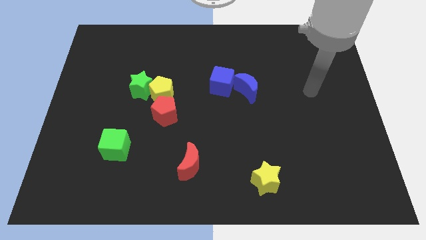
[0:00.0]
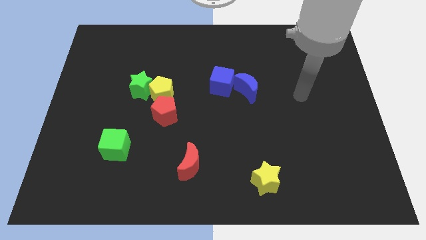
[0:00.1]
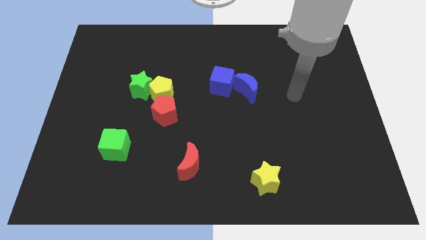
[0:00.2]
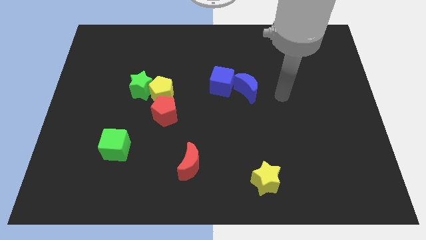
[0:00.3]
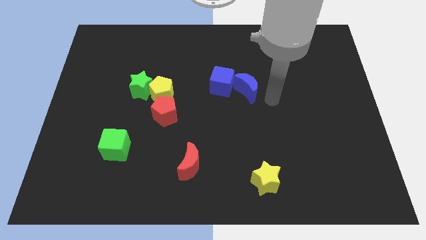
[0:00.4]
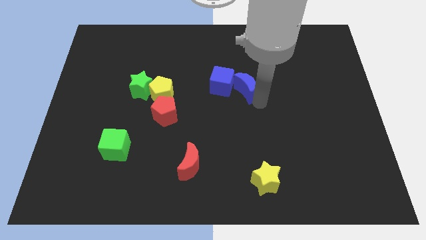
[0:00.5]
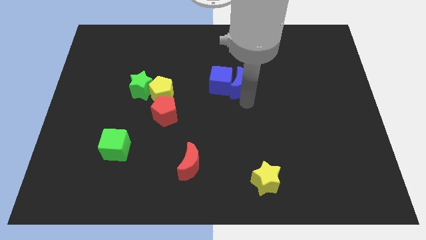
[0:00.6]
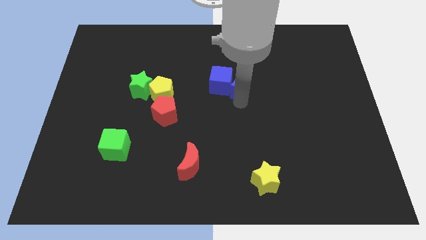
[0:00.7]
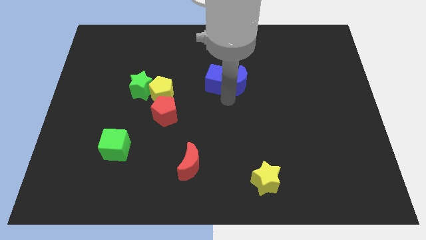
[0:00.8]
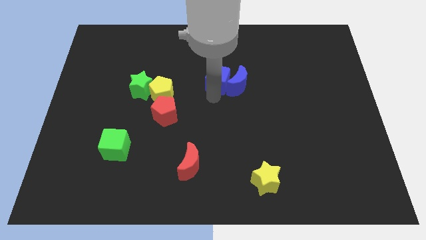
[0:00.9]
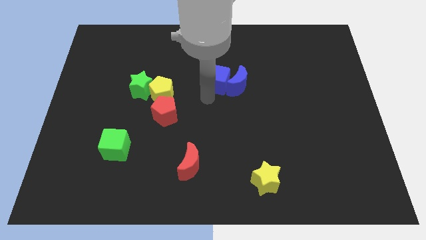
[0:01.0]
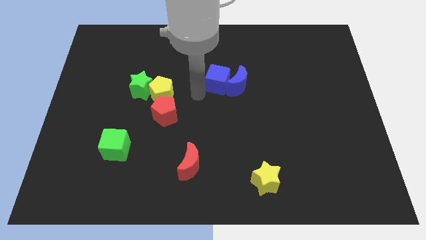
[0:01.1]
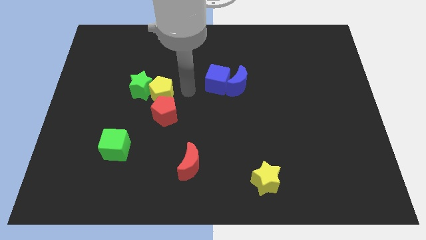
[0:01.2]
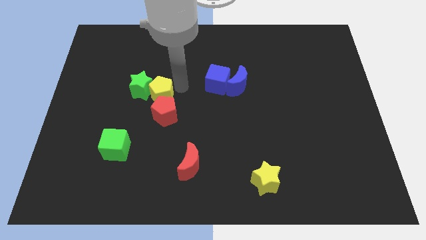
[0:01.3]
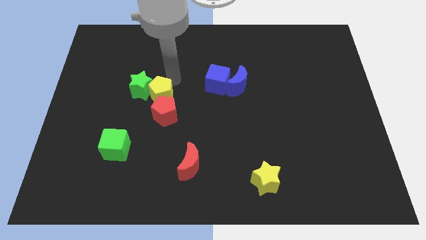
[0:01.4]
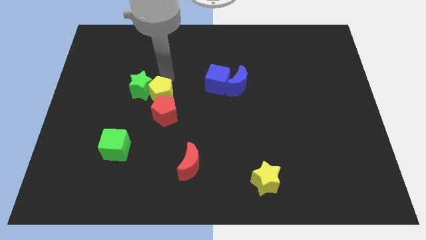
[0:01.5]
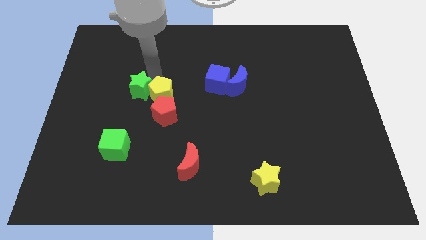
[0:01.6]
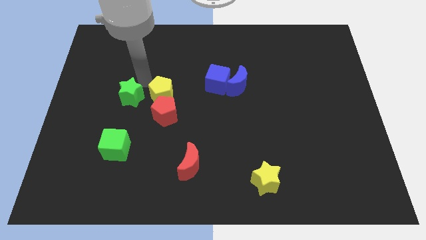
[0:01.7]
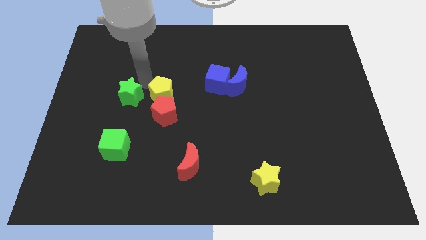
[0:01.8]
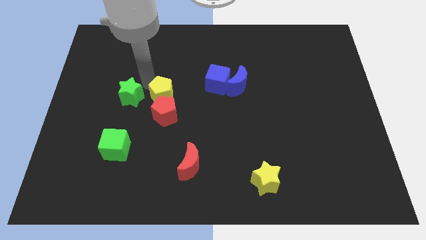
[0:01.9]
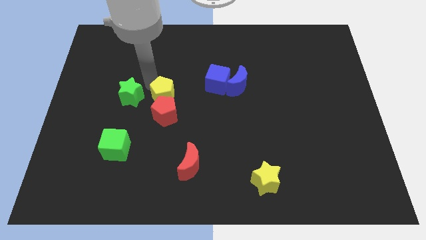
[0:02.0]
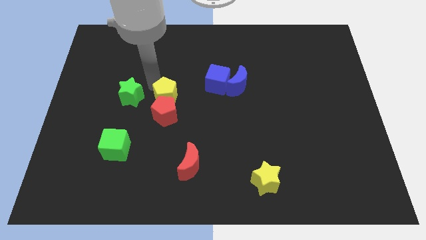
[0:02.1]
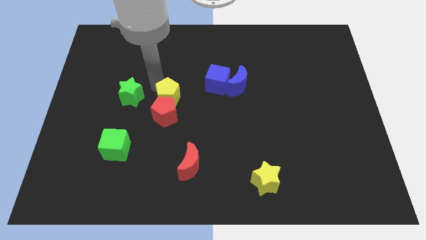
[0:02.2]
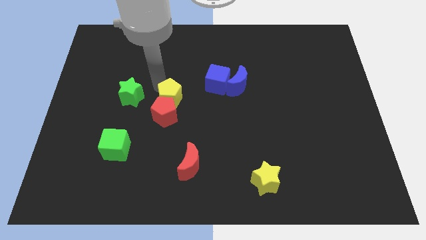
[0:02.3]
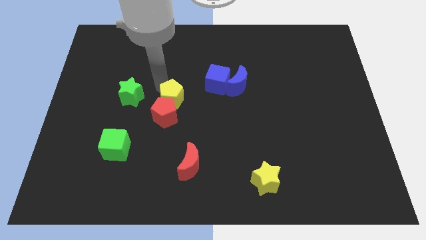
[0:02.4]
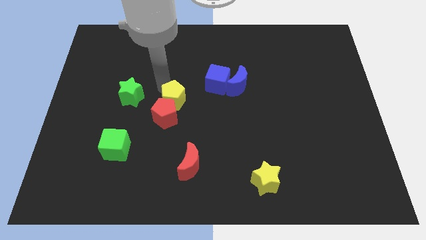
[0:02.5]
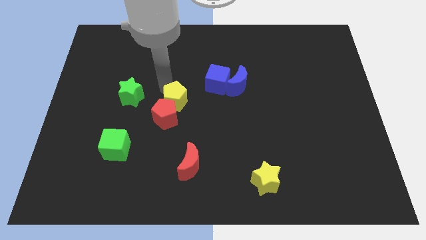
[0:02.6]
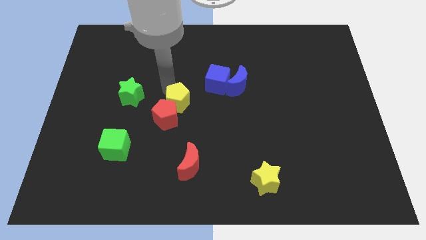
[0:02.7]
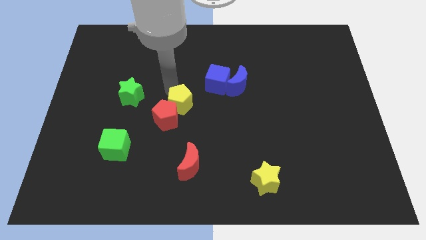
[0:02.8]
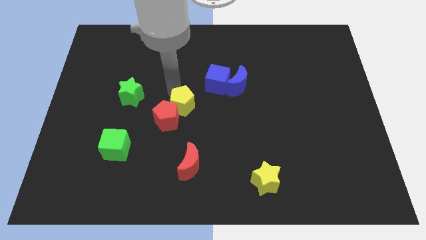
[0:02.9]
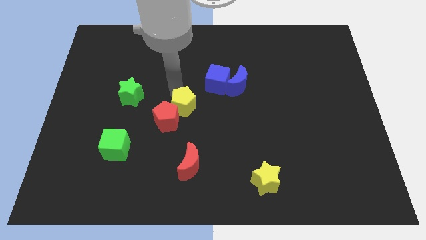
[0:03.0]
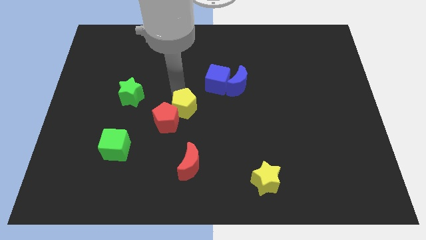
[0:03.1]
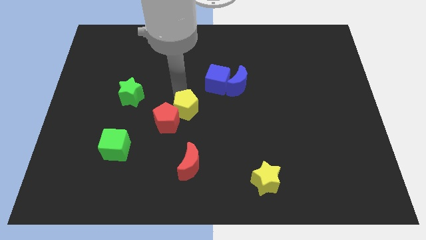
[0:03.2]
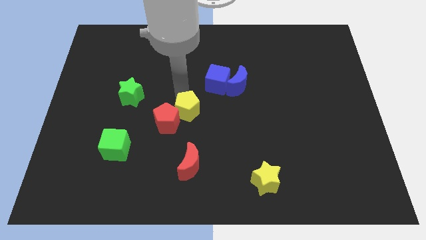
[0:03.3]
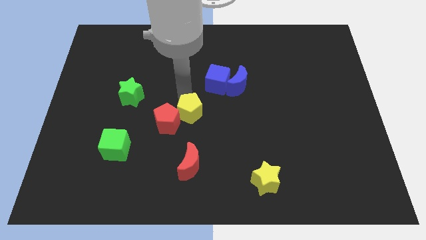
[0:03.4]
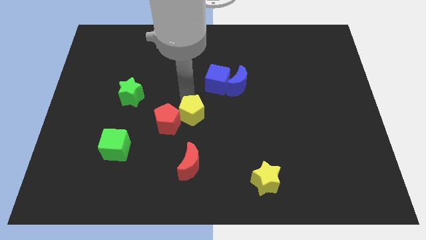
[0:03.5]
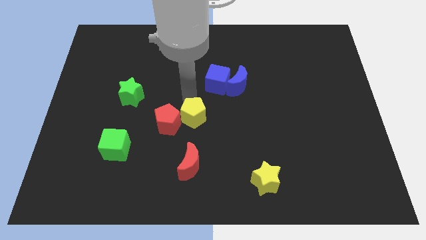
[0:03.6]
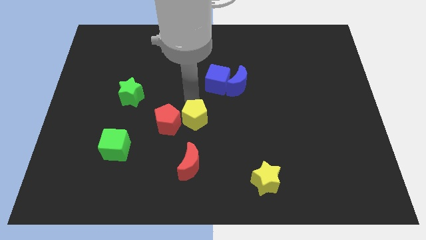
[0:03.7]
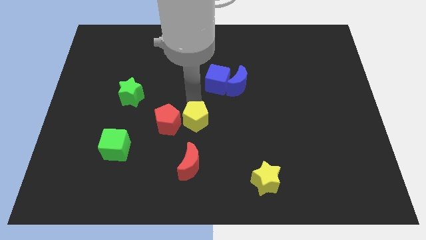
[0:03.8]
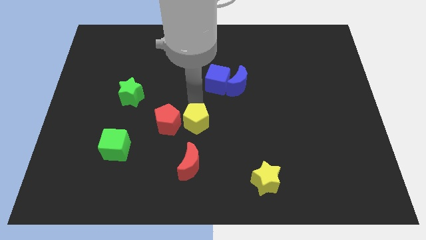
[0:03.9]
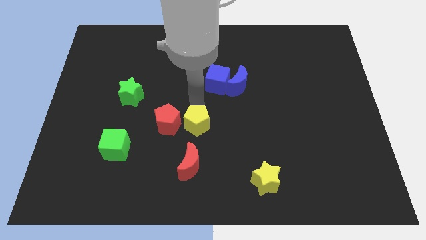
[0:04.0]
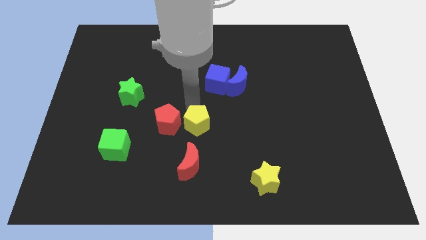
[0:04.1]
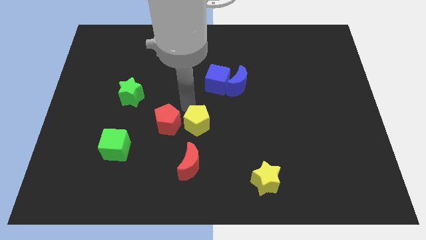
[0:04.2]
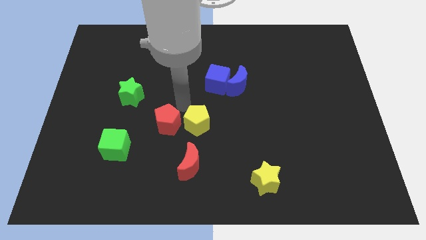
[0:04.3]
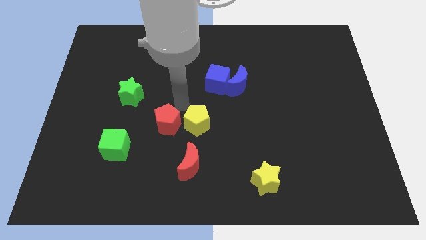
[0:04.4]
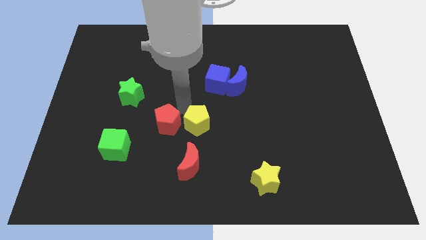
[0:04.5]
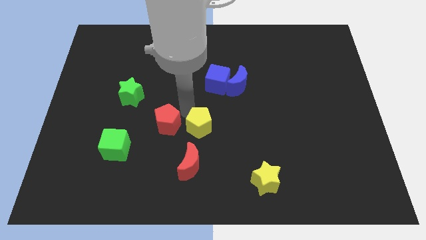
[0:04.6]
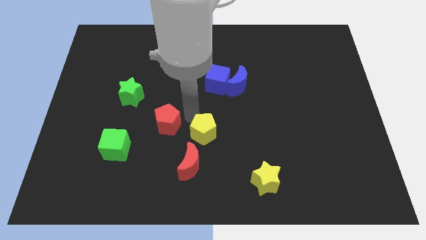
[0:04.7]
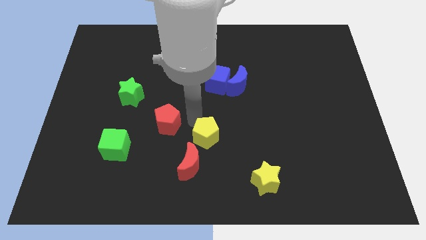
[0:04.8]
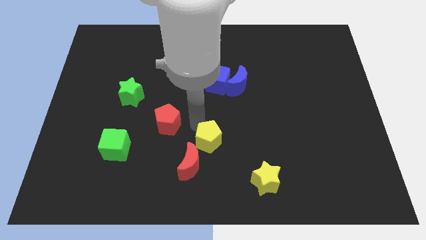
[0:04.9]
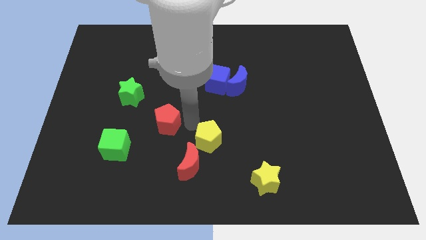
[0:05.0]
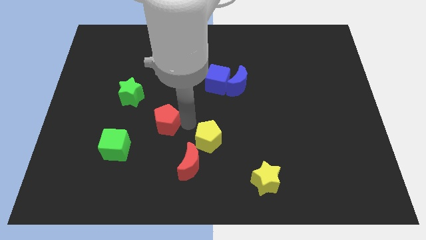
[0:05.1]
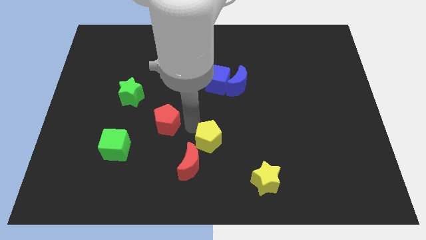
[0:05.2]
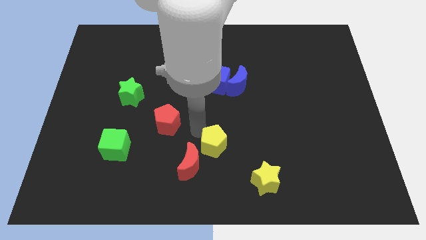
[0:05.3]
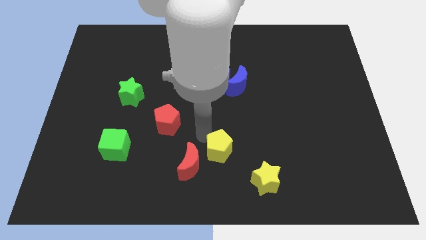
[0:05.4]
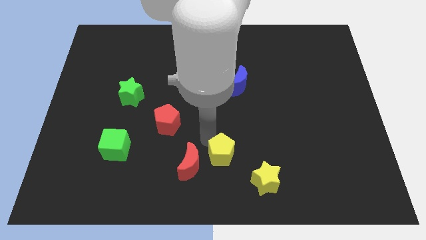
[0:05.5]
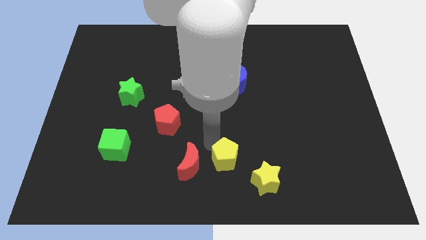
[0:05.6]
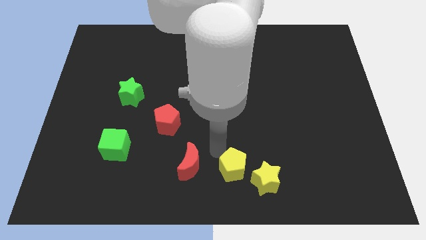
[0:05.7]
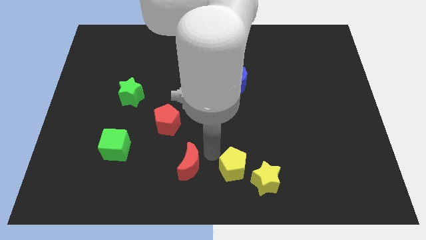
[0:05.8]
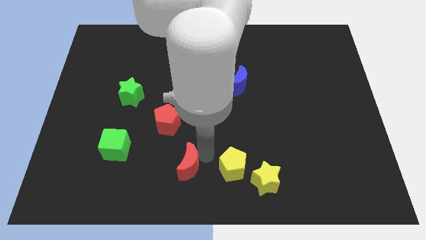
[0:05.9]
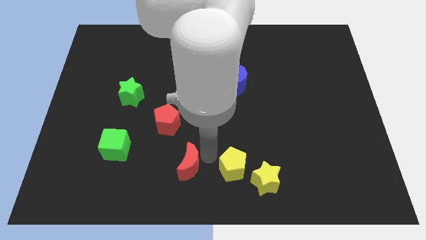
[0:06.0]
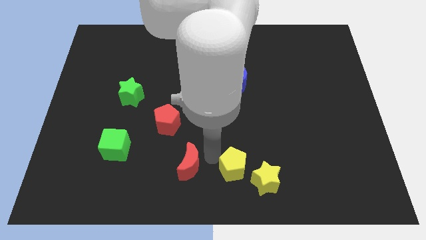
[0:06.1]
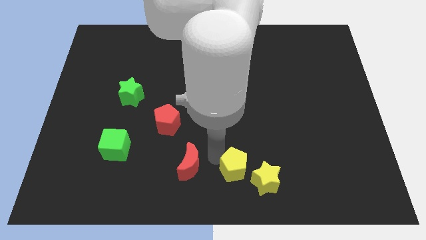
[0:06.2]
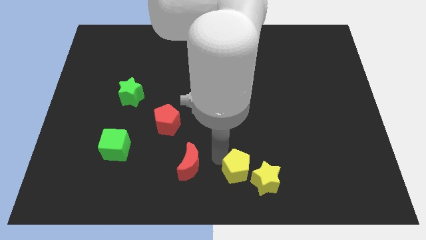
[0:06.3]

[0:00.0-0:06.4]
push the yellow pentagon next to the yellow star

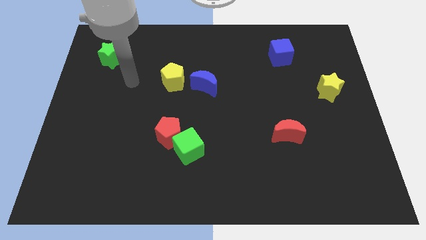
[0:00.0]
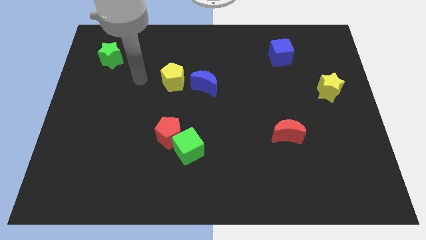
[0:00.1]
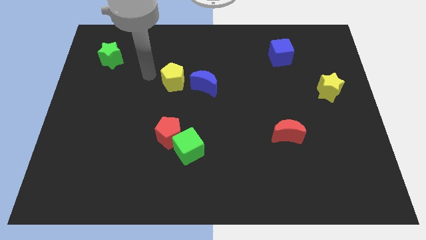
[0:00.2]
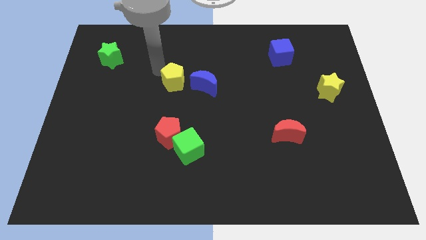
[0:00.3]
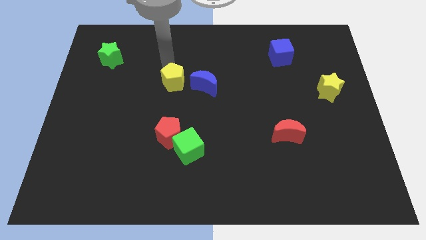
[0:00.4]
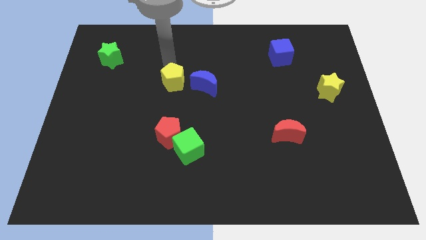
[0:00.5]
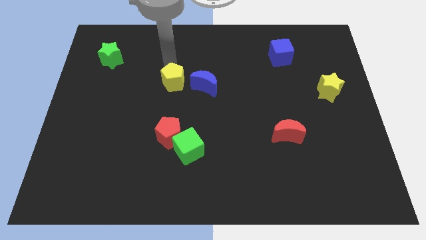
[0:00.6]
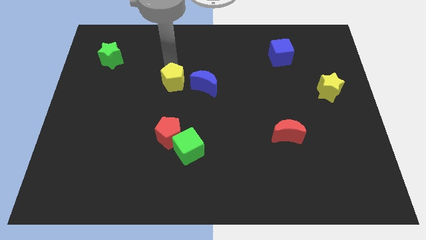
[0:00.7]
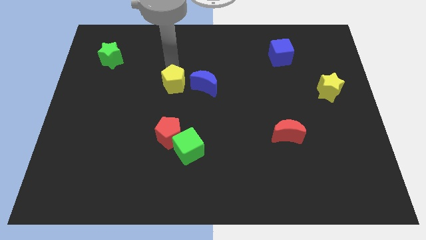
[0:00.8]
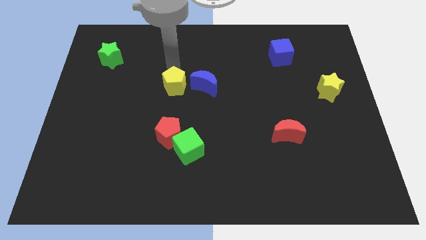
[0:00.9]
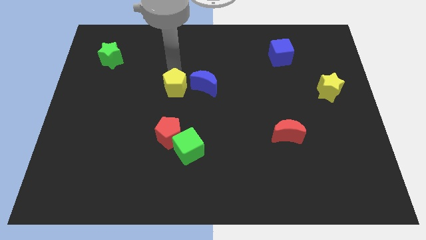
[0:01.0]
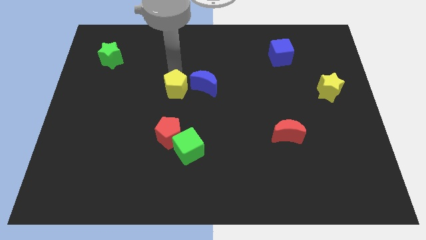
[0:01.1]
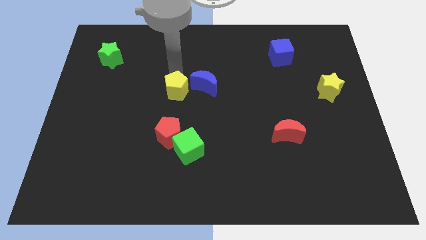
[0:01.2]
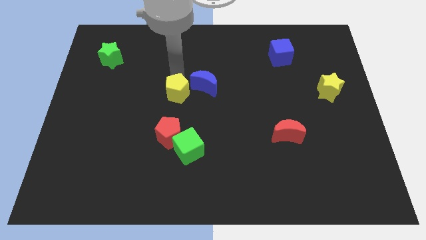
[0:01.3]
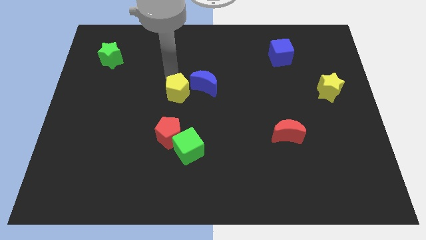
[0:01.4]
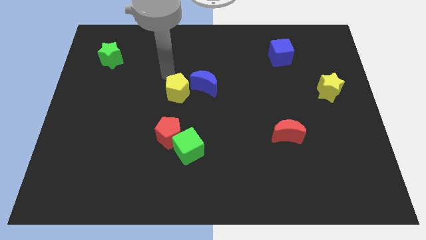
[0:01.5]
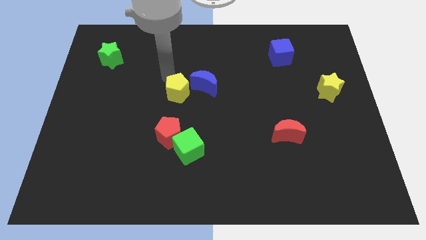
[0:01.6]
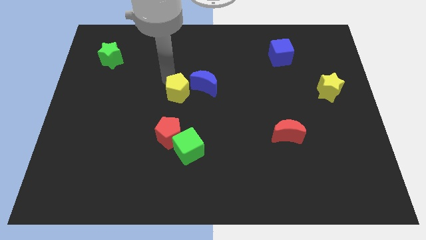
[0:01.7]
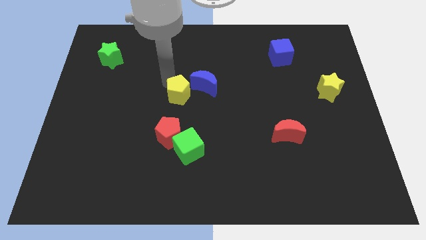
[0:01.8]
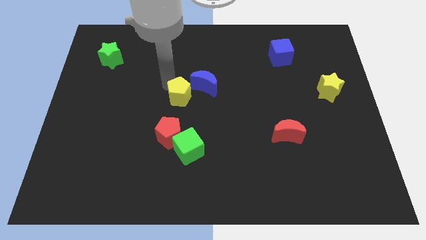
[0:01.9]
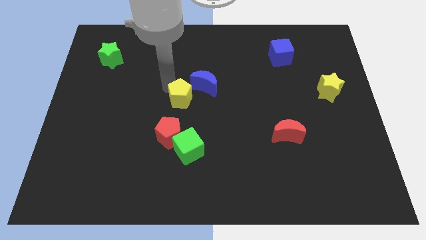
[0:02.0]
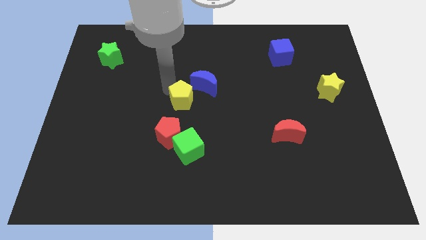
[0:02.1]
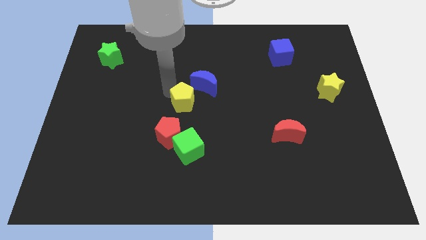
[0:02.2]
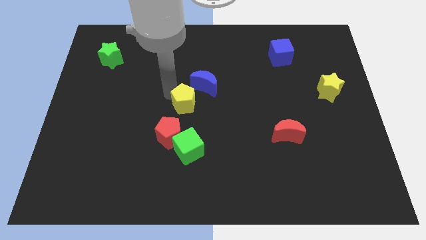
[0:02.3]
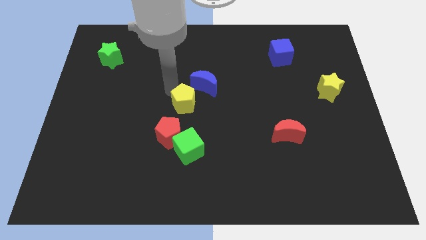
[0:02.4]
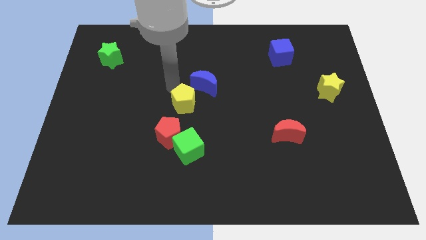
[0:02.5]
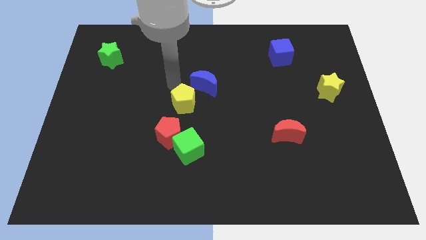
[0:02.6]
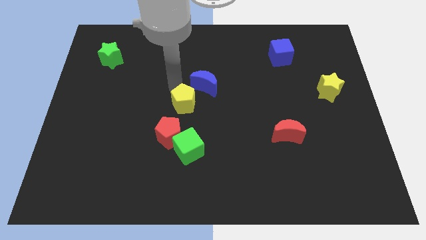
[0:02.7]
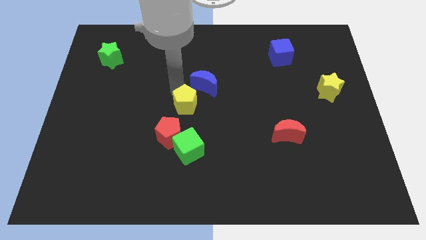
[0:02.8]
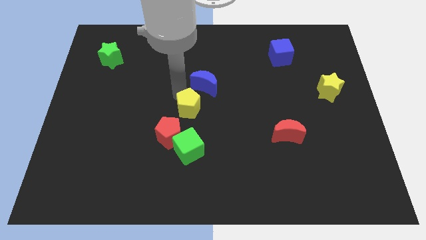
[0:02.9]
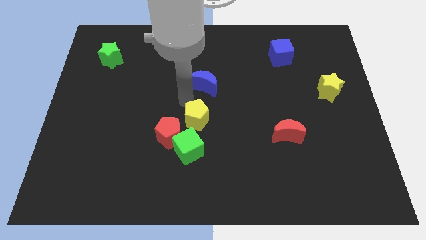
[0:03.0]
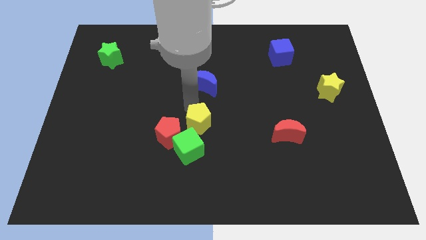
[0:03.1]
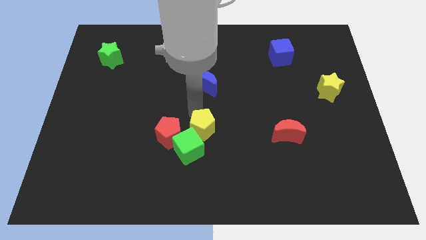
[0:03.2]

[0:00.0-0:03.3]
push the yellow pentagon close to the green cube
